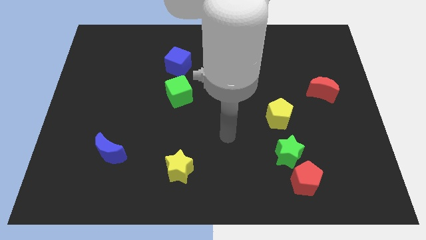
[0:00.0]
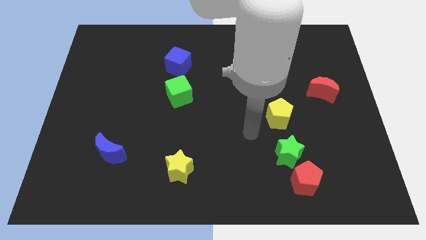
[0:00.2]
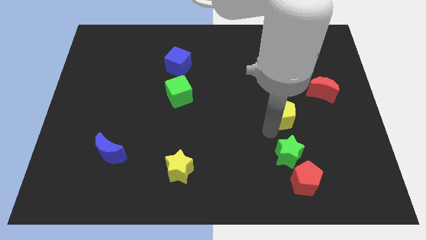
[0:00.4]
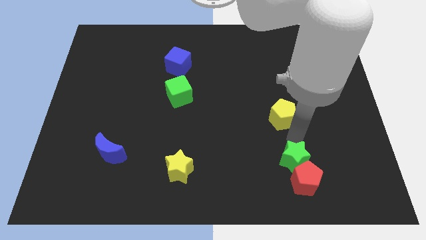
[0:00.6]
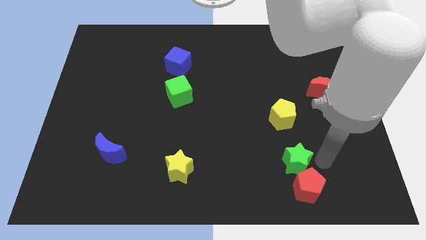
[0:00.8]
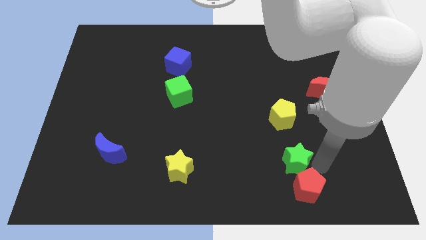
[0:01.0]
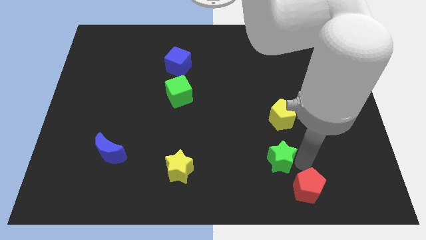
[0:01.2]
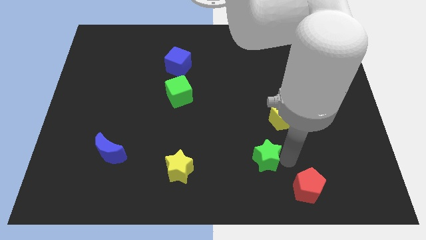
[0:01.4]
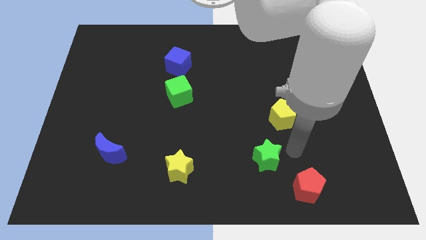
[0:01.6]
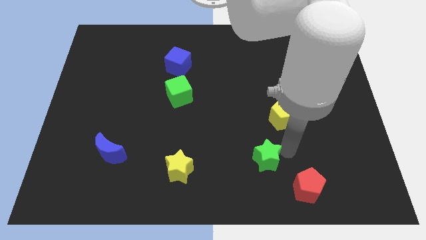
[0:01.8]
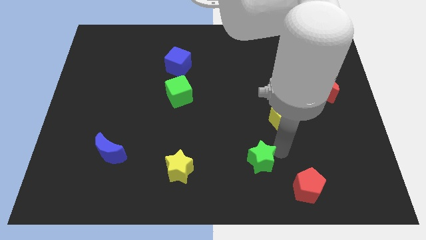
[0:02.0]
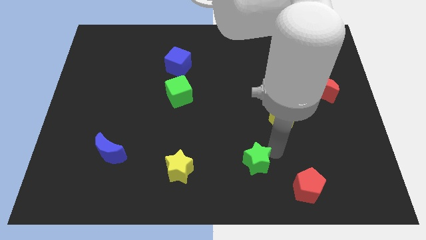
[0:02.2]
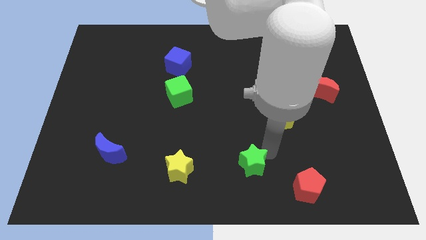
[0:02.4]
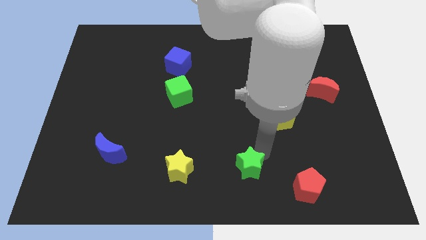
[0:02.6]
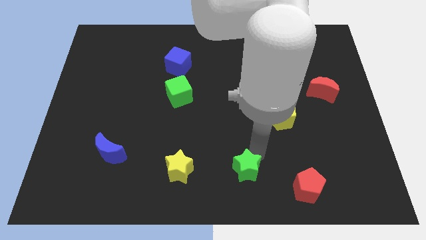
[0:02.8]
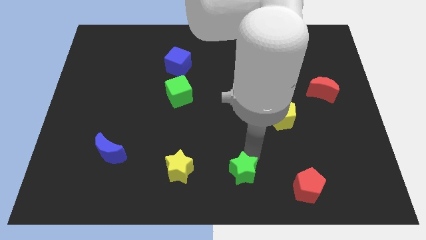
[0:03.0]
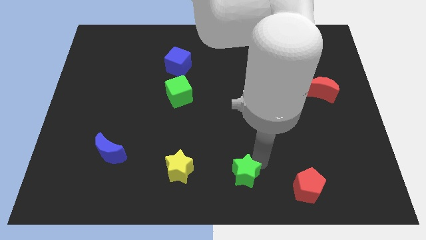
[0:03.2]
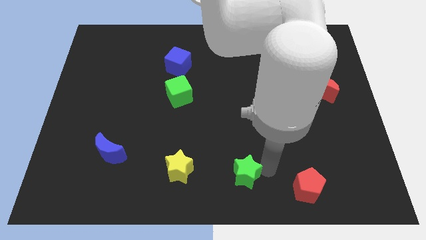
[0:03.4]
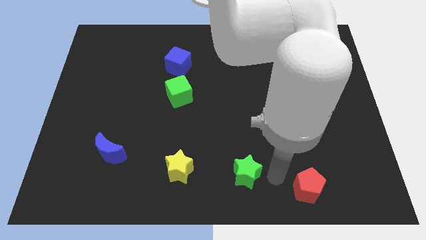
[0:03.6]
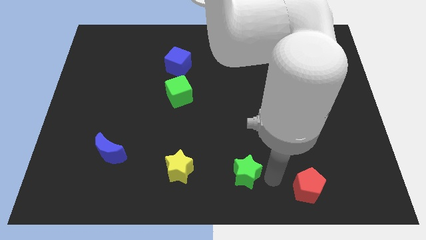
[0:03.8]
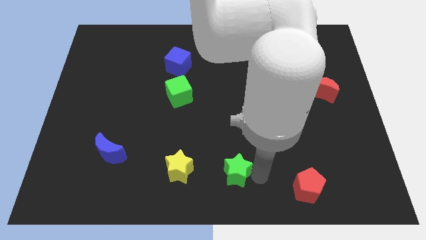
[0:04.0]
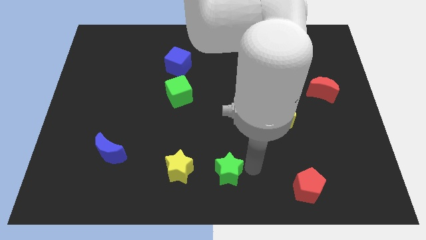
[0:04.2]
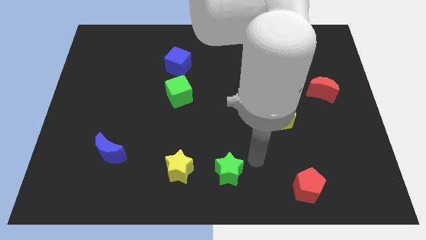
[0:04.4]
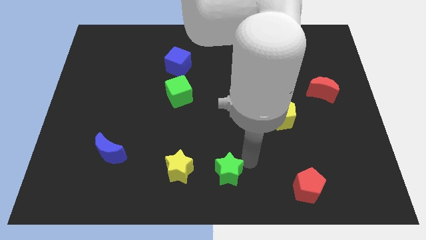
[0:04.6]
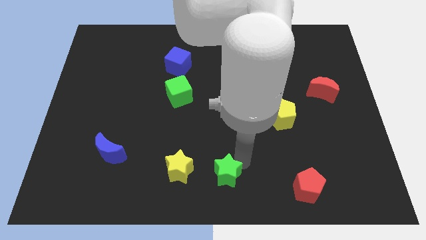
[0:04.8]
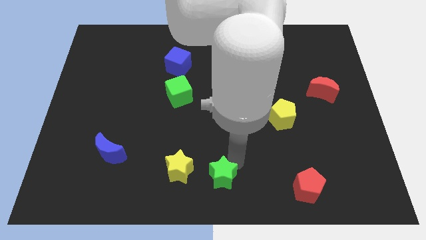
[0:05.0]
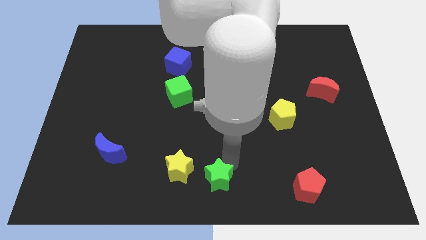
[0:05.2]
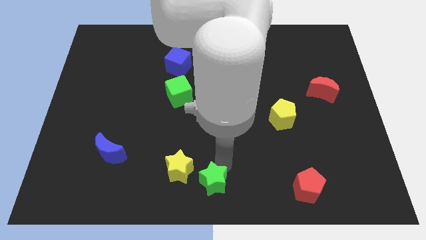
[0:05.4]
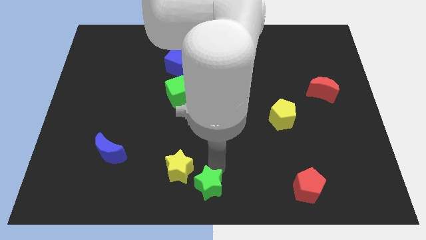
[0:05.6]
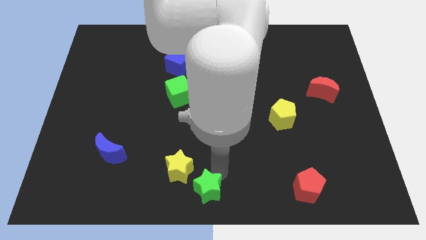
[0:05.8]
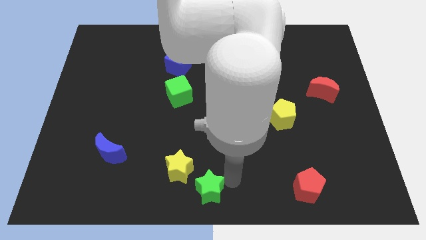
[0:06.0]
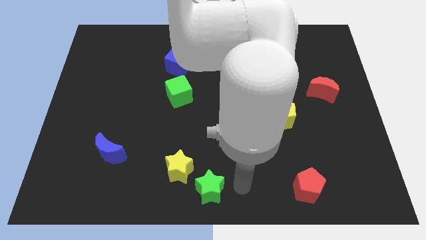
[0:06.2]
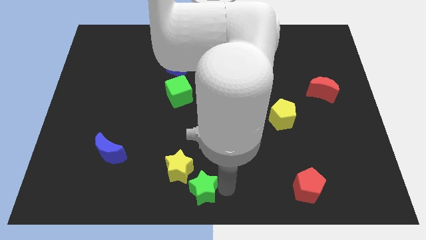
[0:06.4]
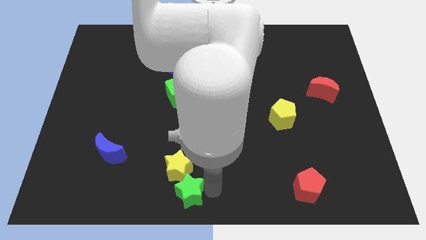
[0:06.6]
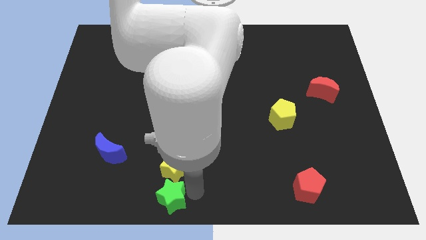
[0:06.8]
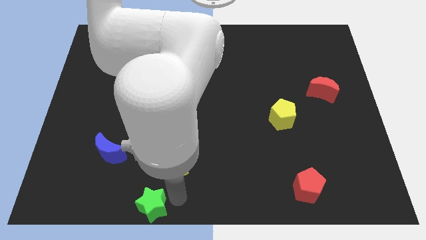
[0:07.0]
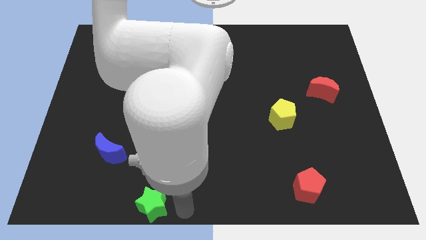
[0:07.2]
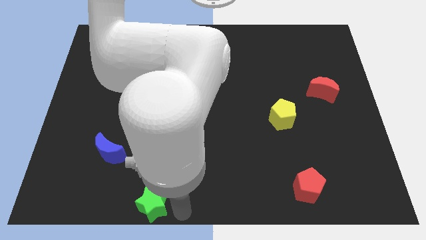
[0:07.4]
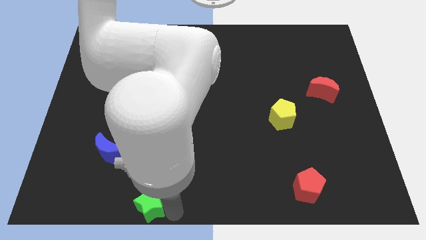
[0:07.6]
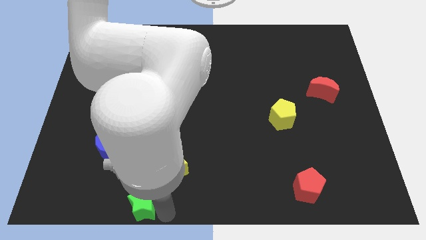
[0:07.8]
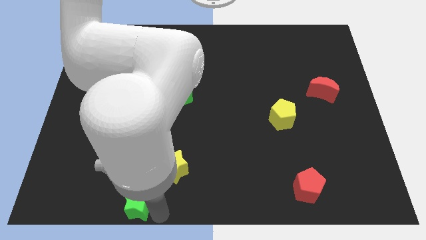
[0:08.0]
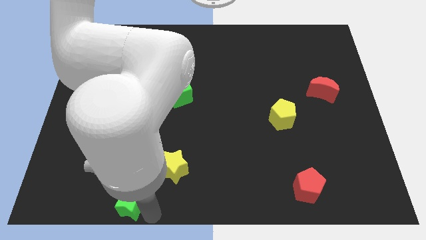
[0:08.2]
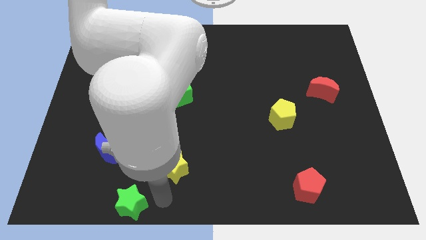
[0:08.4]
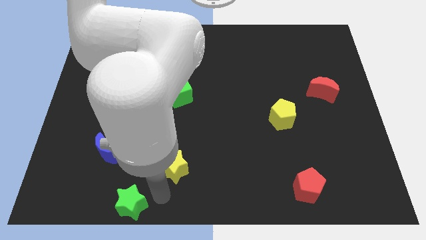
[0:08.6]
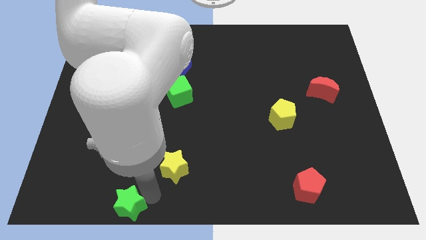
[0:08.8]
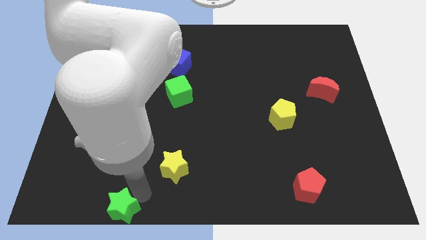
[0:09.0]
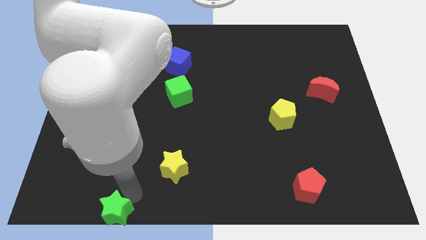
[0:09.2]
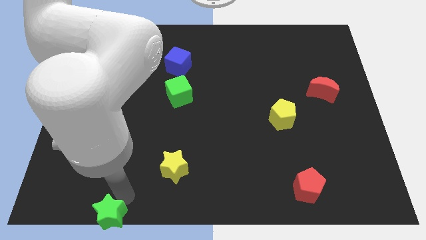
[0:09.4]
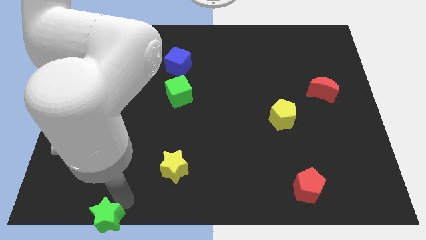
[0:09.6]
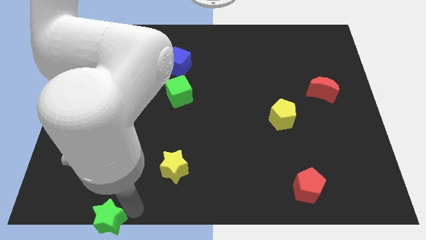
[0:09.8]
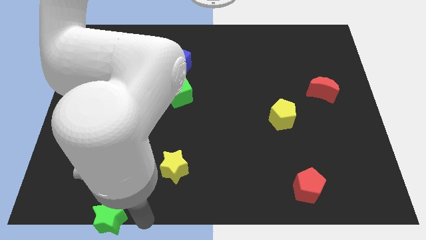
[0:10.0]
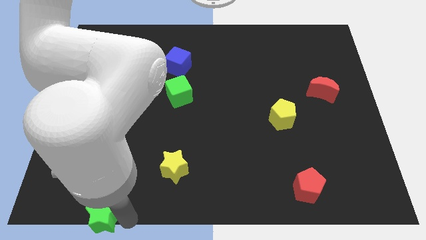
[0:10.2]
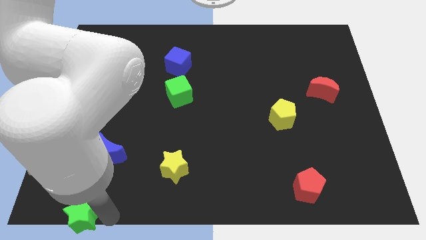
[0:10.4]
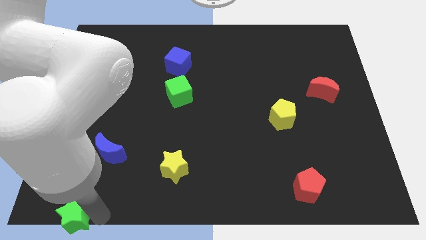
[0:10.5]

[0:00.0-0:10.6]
push the green star to the bottom left of the board
